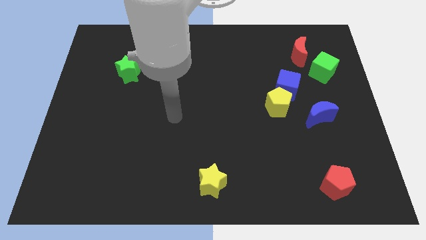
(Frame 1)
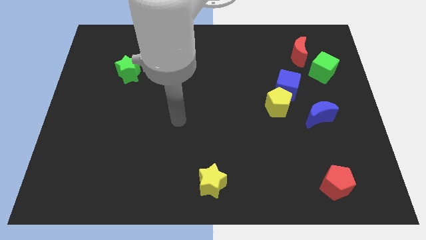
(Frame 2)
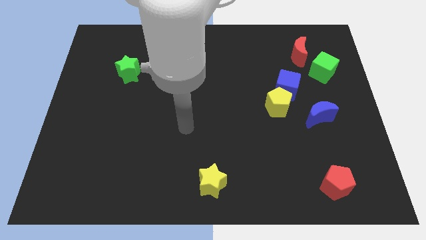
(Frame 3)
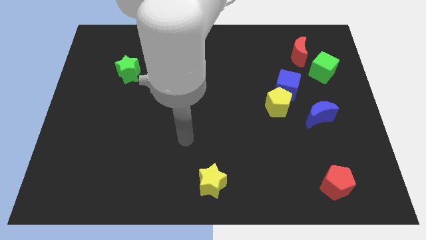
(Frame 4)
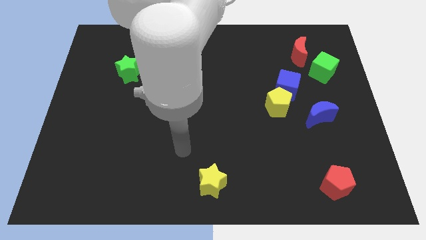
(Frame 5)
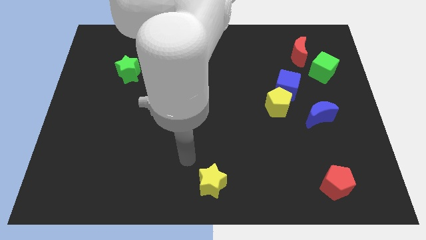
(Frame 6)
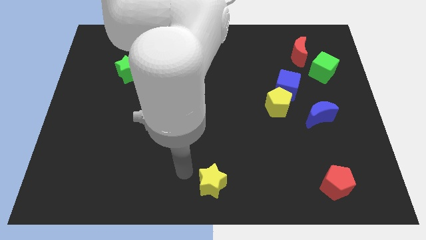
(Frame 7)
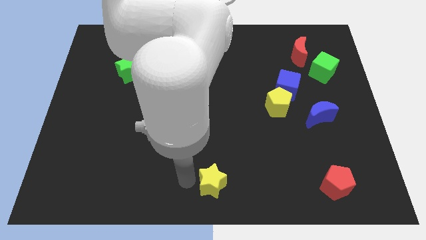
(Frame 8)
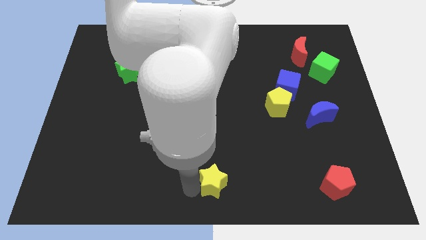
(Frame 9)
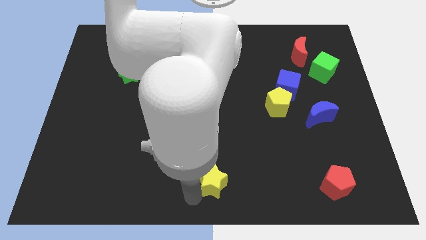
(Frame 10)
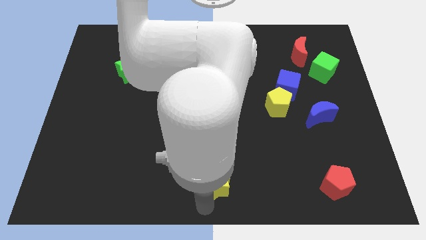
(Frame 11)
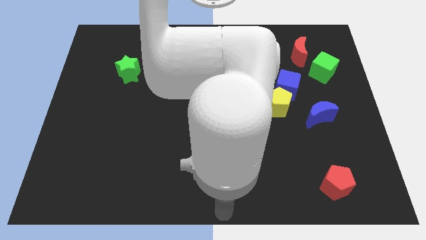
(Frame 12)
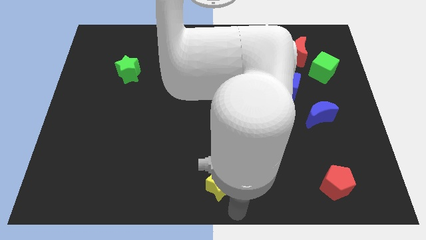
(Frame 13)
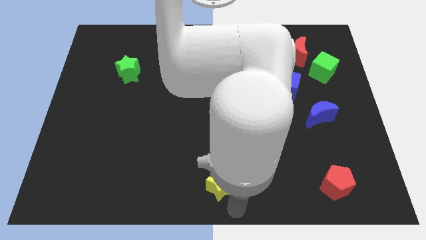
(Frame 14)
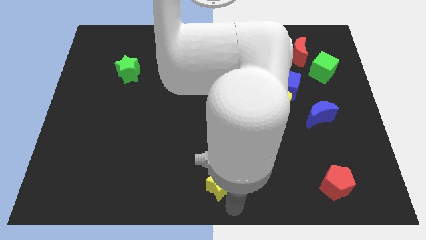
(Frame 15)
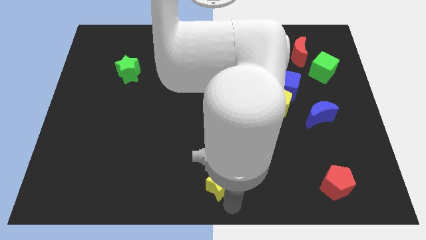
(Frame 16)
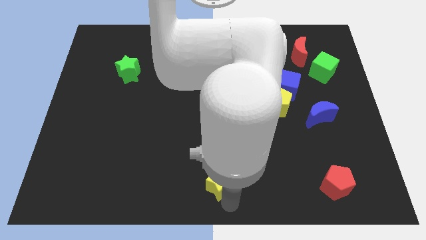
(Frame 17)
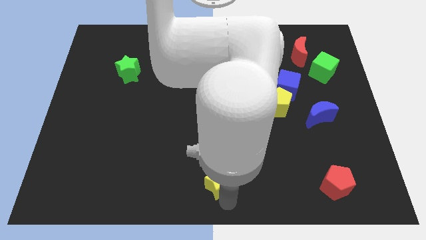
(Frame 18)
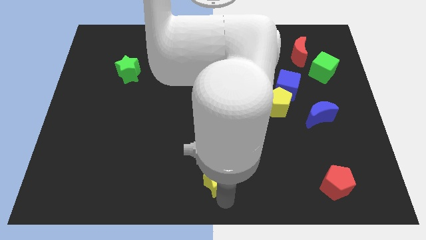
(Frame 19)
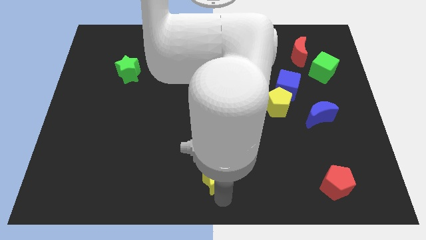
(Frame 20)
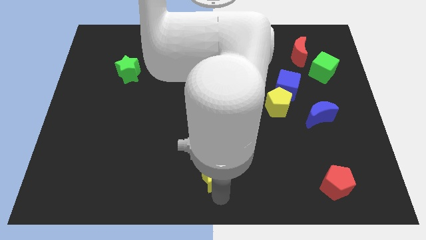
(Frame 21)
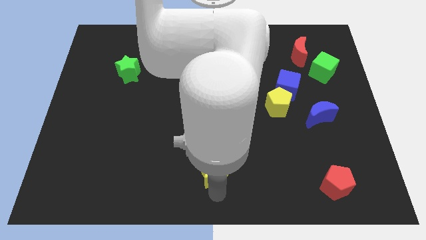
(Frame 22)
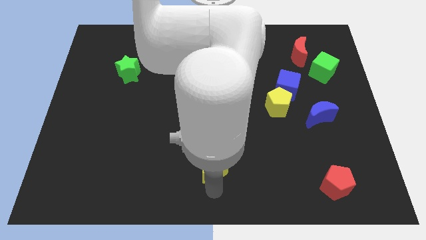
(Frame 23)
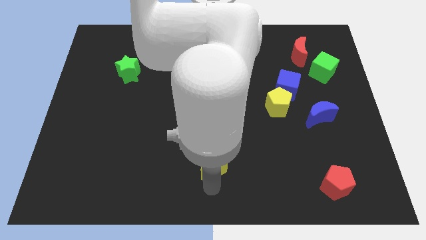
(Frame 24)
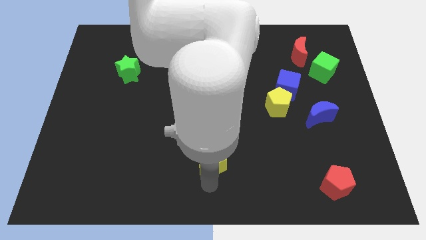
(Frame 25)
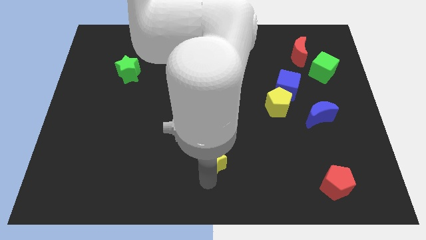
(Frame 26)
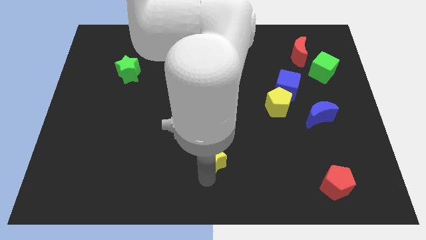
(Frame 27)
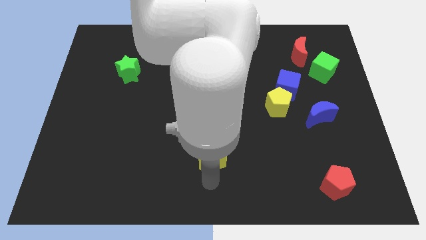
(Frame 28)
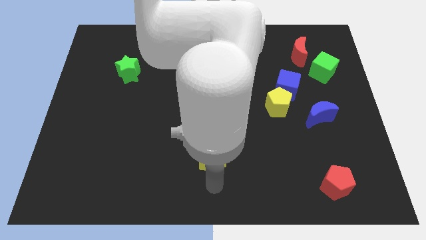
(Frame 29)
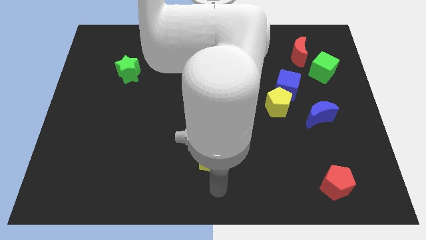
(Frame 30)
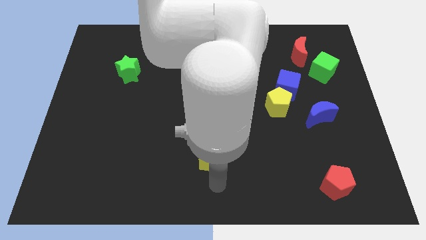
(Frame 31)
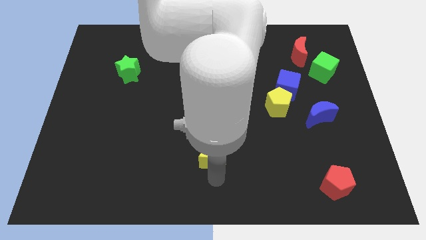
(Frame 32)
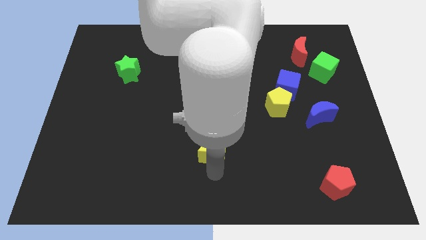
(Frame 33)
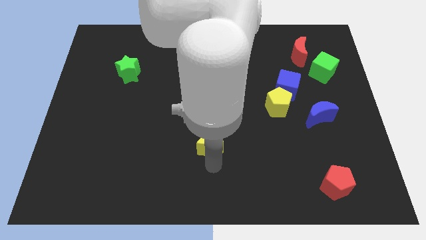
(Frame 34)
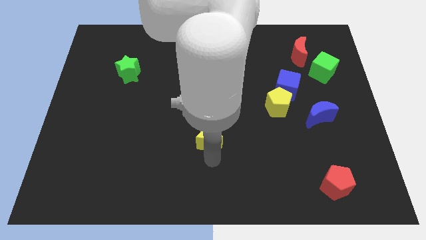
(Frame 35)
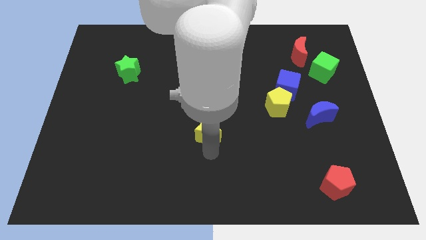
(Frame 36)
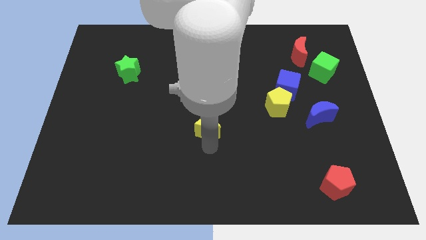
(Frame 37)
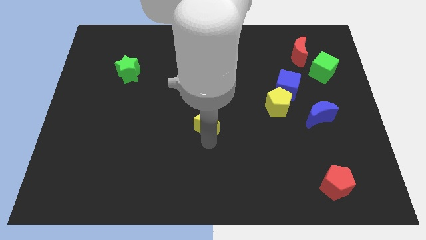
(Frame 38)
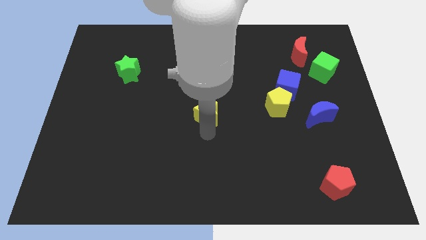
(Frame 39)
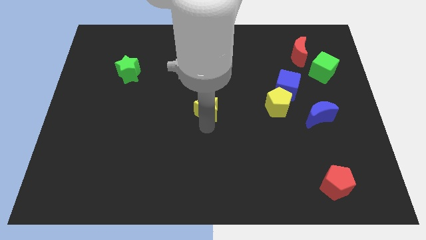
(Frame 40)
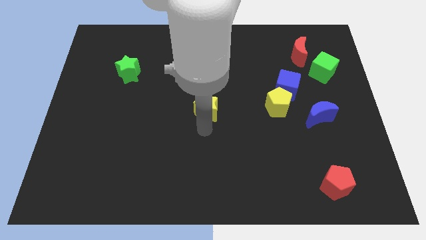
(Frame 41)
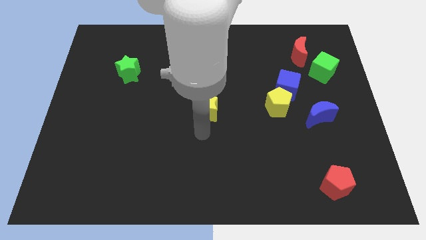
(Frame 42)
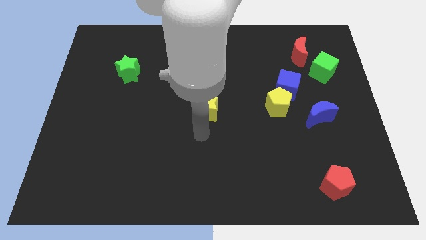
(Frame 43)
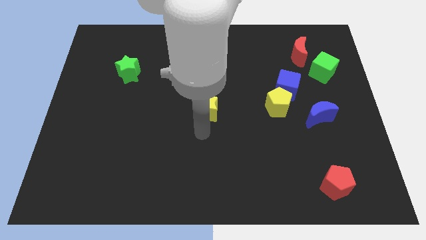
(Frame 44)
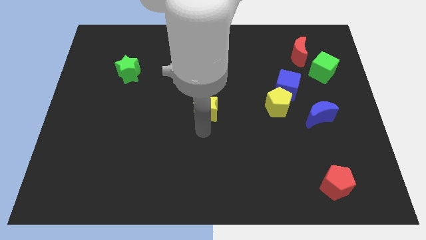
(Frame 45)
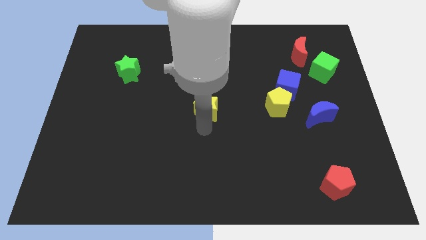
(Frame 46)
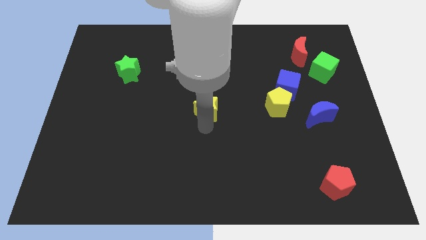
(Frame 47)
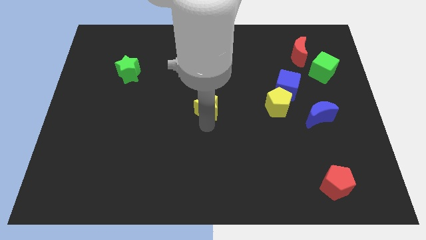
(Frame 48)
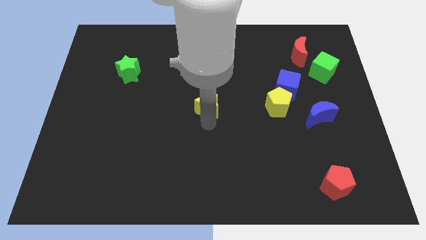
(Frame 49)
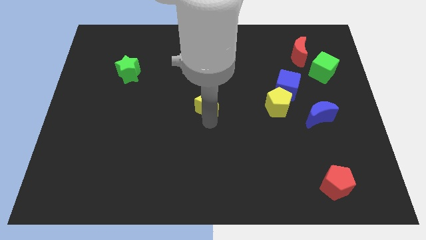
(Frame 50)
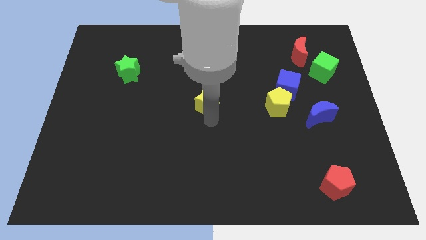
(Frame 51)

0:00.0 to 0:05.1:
move the yellow star upwards

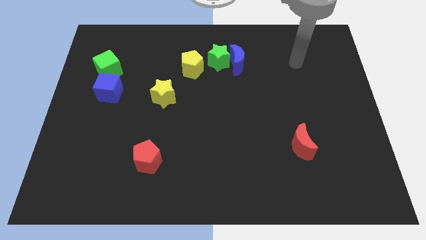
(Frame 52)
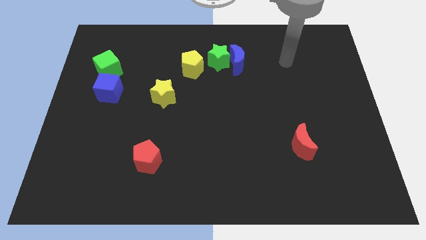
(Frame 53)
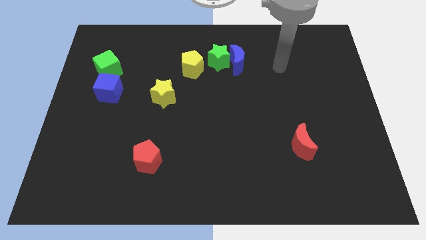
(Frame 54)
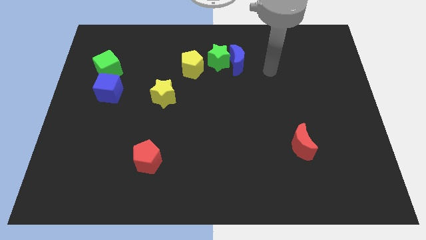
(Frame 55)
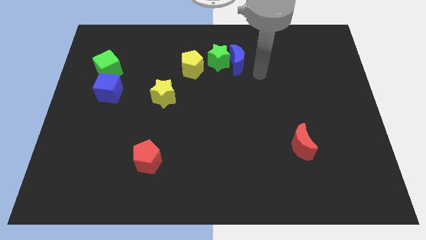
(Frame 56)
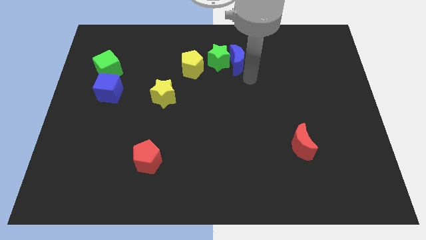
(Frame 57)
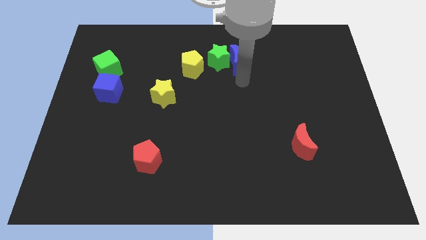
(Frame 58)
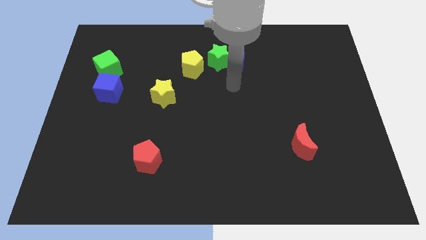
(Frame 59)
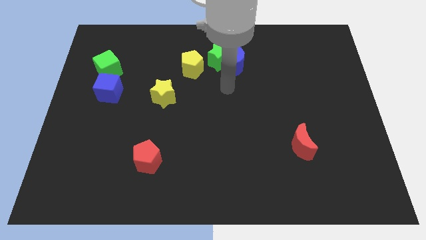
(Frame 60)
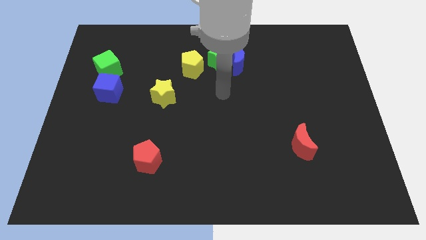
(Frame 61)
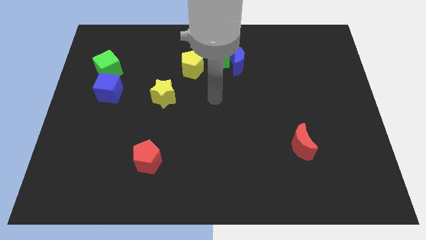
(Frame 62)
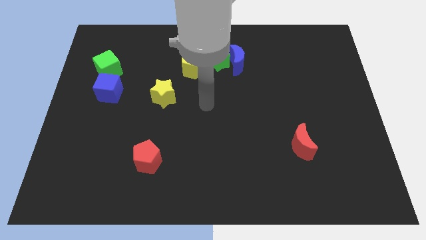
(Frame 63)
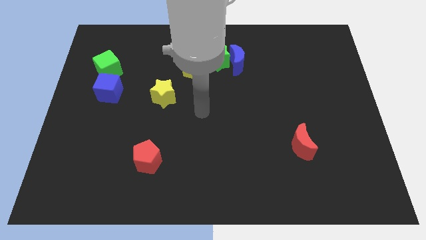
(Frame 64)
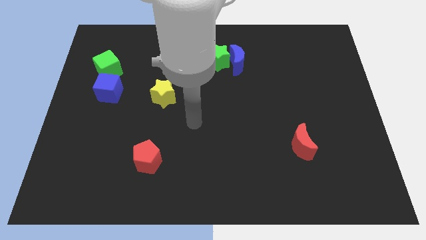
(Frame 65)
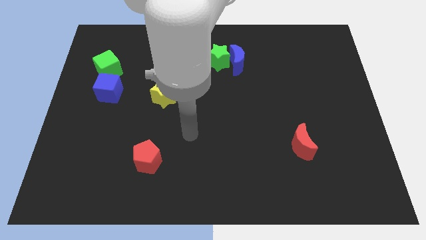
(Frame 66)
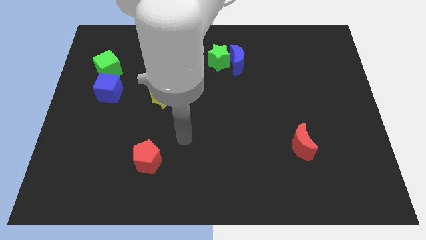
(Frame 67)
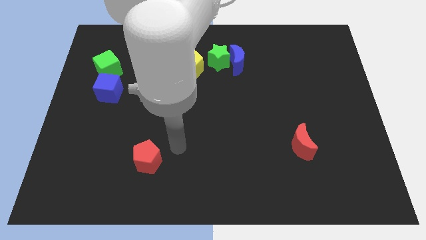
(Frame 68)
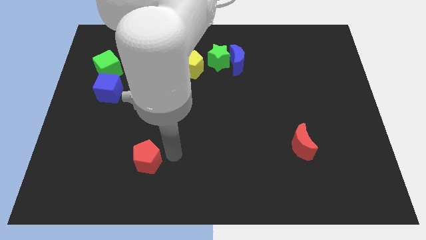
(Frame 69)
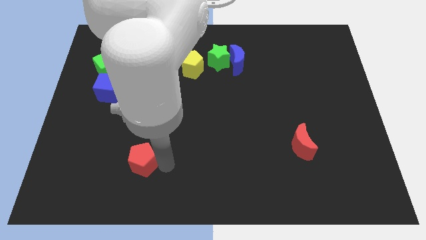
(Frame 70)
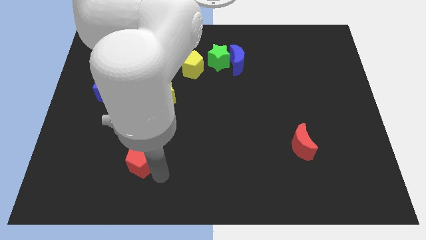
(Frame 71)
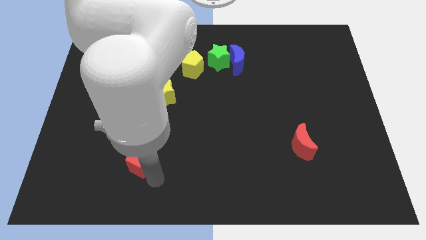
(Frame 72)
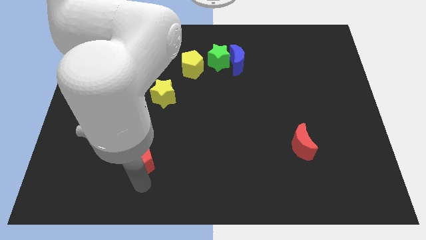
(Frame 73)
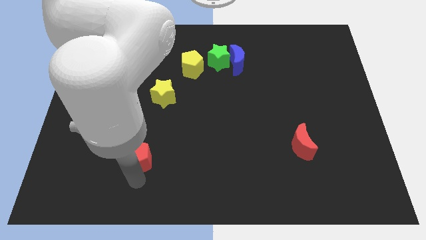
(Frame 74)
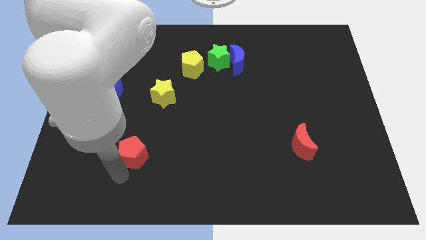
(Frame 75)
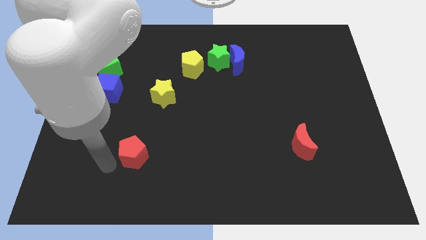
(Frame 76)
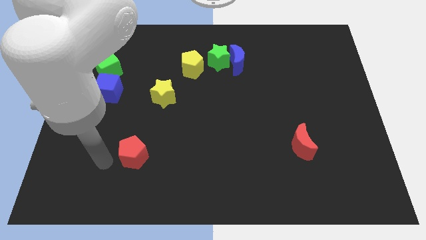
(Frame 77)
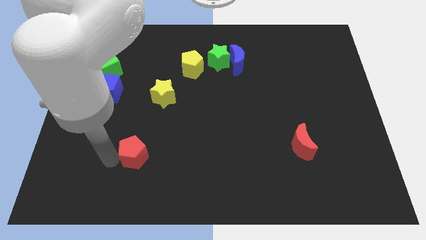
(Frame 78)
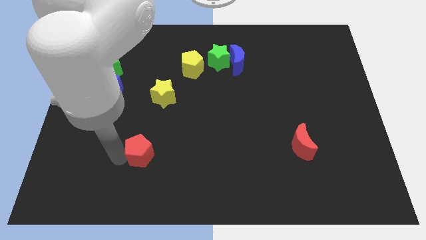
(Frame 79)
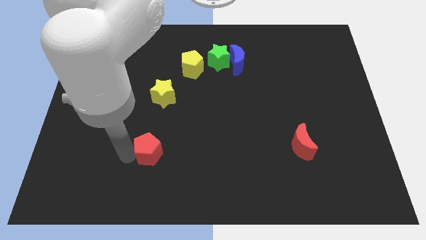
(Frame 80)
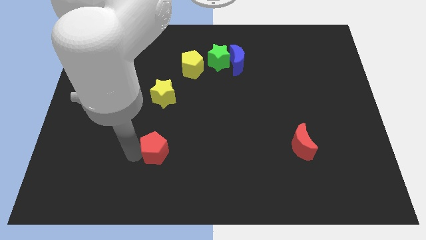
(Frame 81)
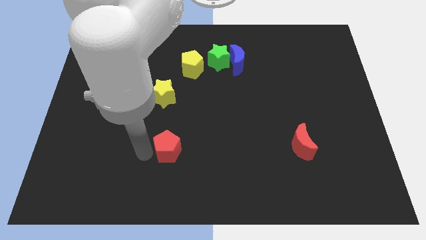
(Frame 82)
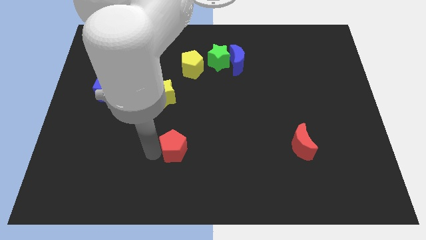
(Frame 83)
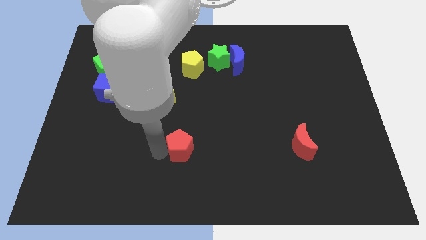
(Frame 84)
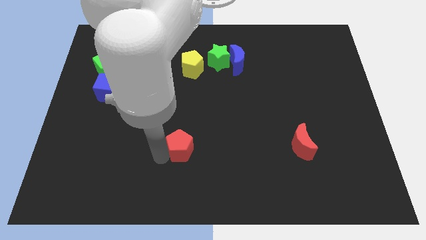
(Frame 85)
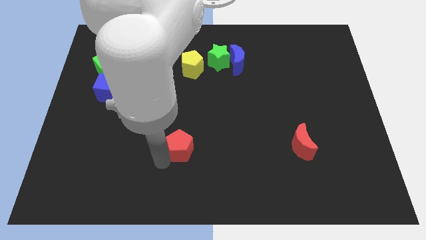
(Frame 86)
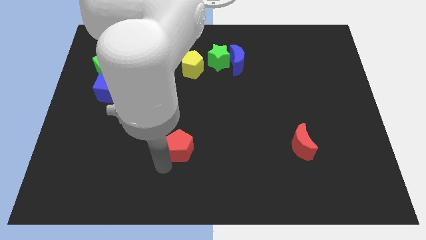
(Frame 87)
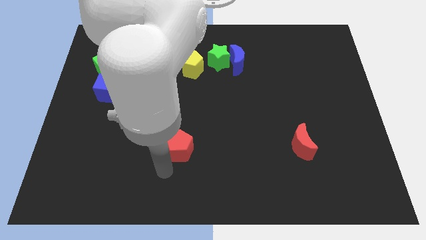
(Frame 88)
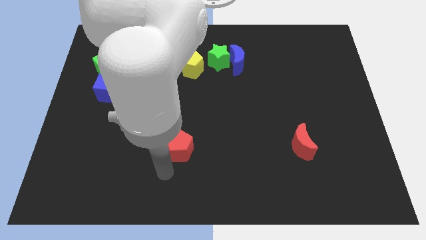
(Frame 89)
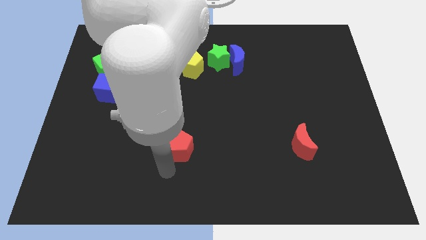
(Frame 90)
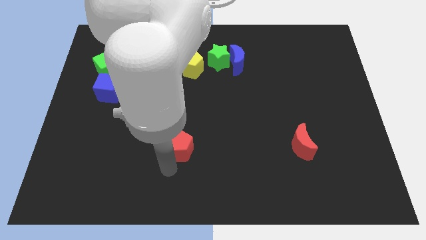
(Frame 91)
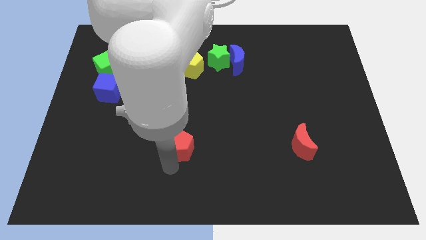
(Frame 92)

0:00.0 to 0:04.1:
move the red pentagon diagonally up and right somewhat
